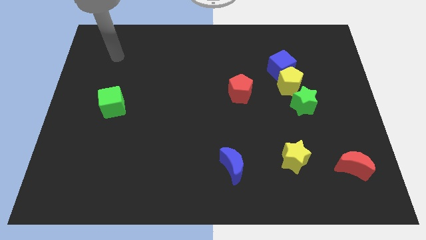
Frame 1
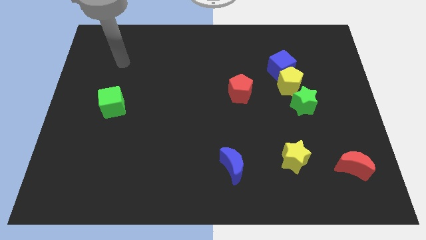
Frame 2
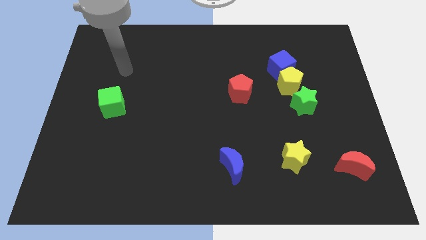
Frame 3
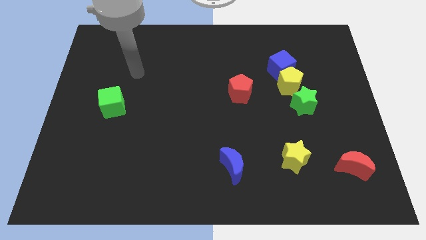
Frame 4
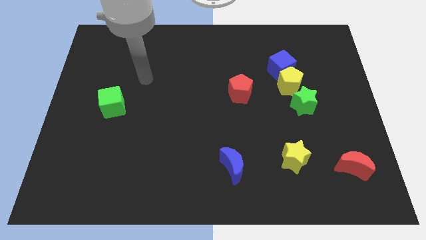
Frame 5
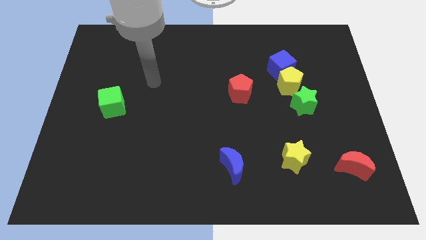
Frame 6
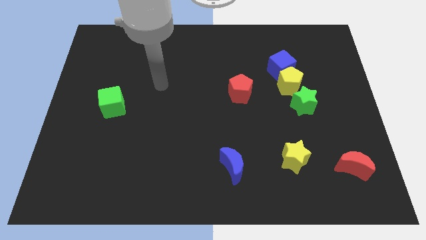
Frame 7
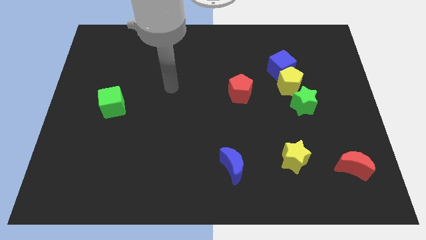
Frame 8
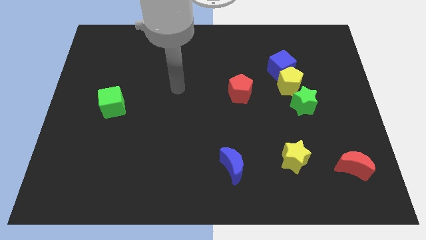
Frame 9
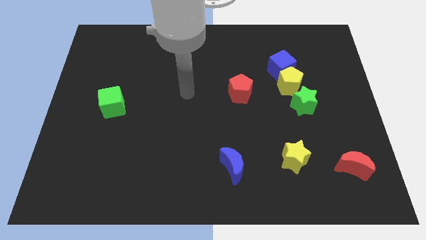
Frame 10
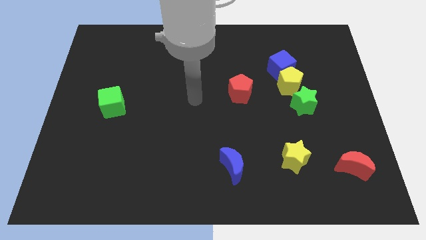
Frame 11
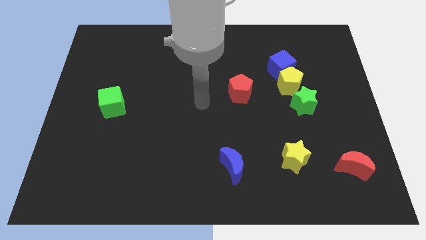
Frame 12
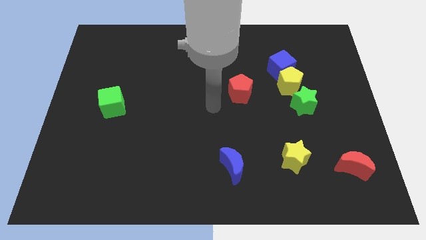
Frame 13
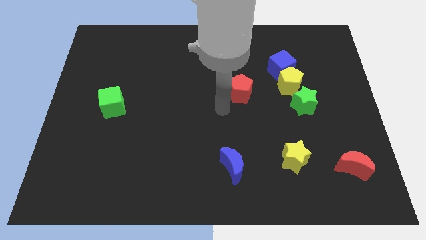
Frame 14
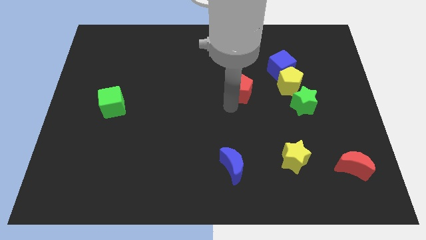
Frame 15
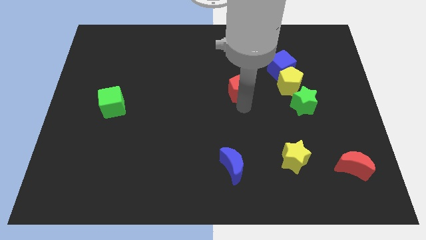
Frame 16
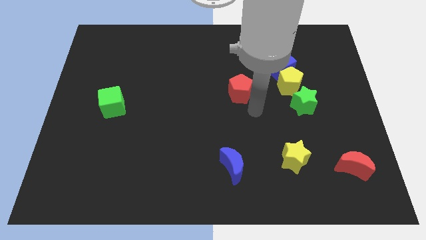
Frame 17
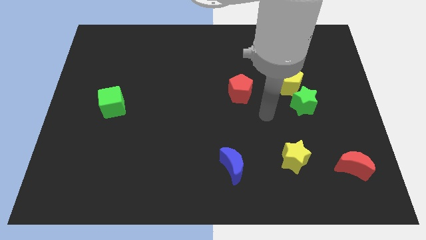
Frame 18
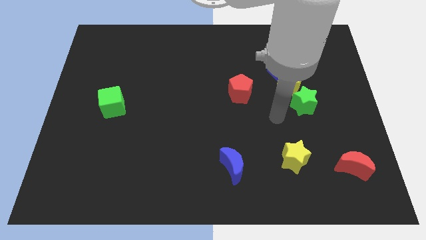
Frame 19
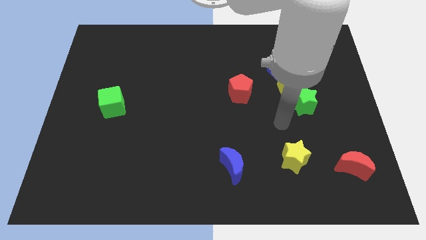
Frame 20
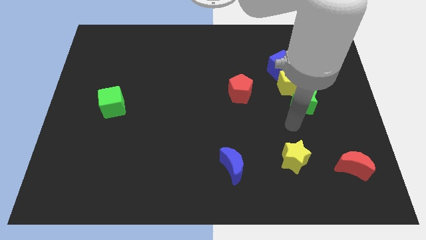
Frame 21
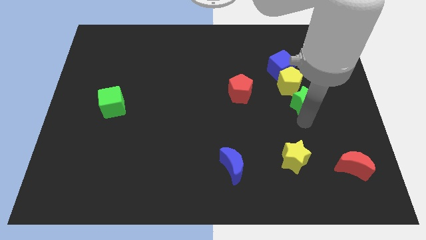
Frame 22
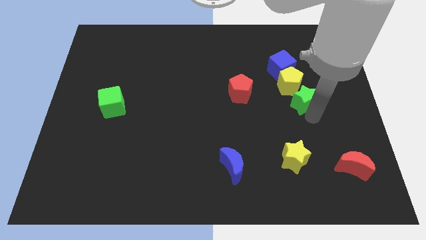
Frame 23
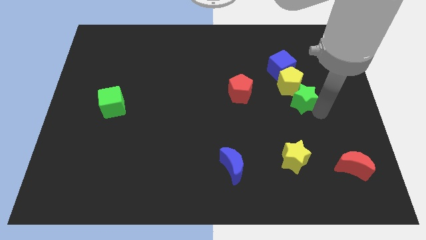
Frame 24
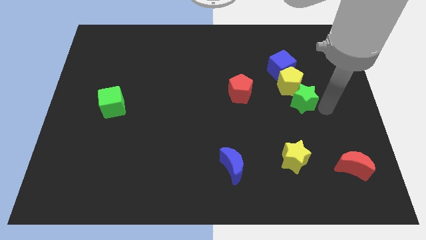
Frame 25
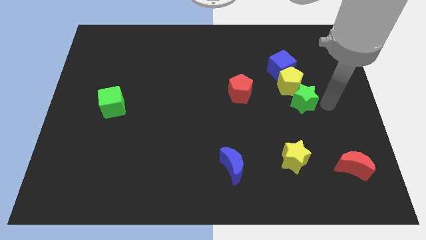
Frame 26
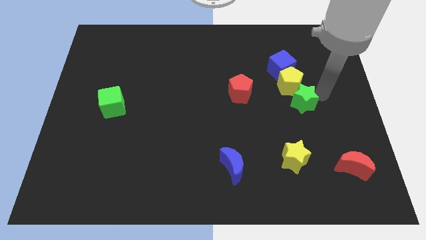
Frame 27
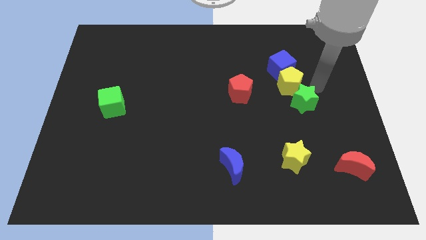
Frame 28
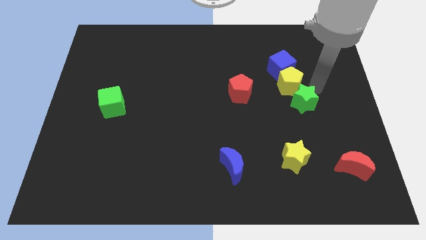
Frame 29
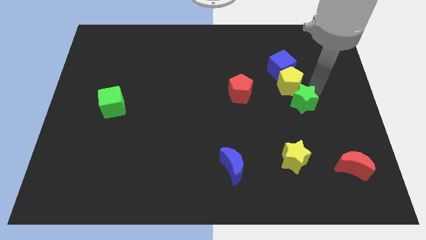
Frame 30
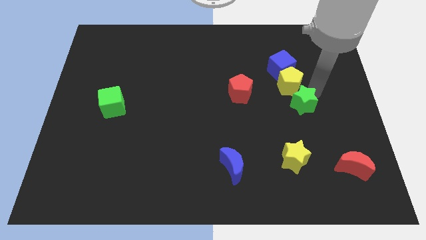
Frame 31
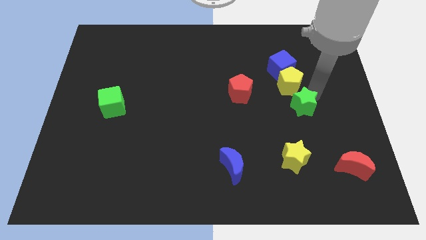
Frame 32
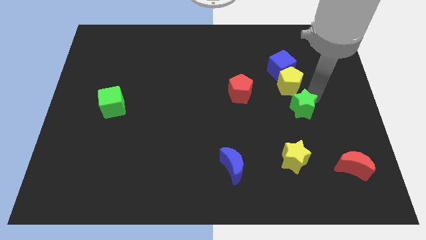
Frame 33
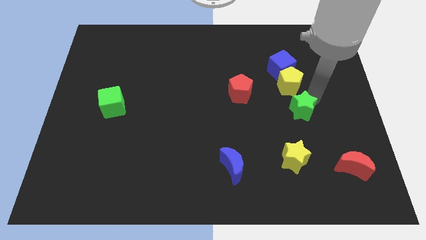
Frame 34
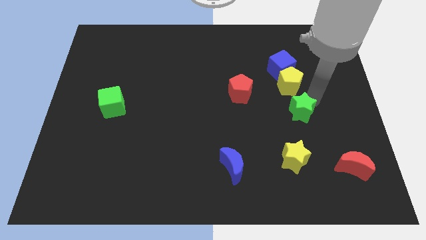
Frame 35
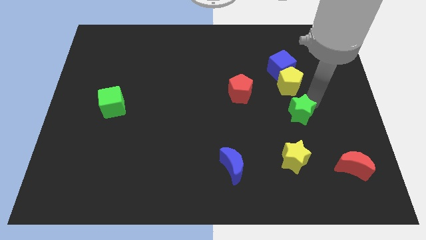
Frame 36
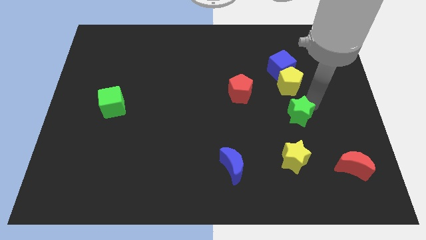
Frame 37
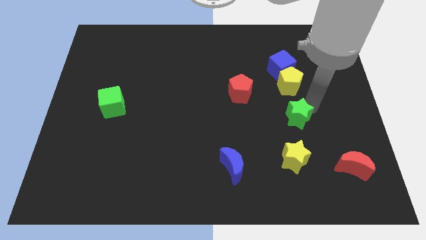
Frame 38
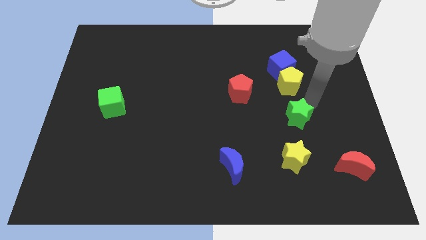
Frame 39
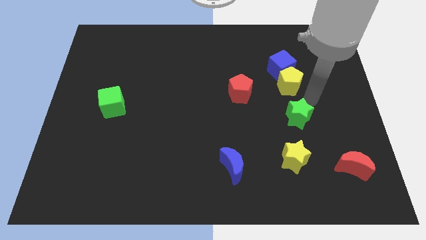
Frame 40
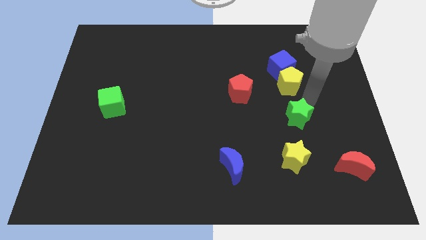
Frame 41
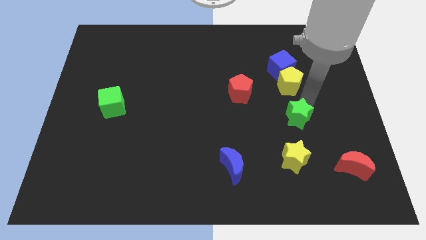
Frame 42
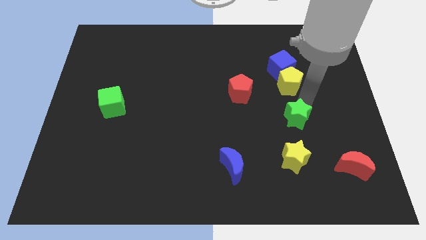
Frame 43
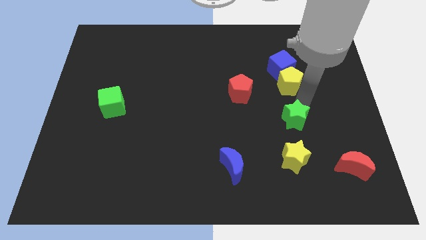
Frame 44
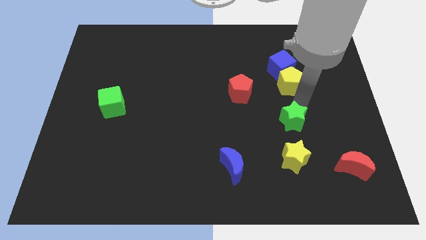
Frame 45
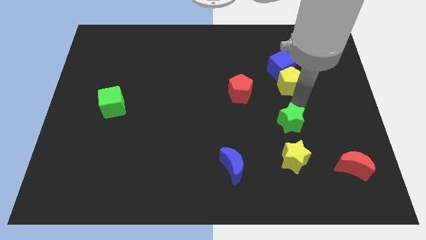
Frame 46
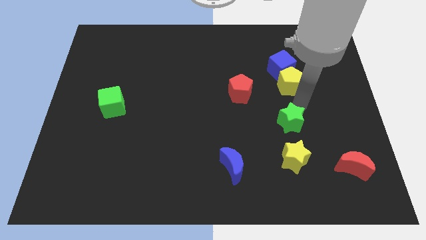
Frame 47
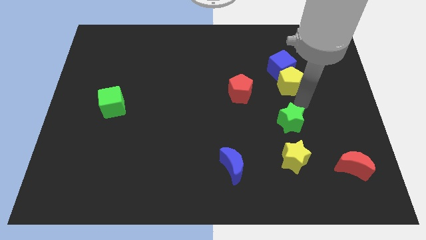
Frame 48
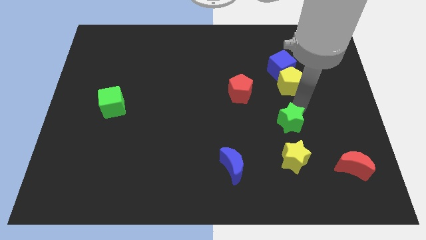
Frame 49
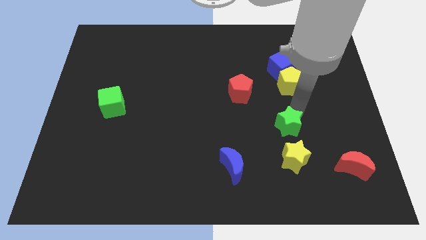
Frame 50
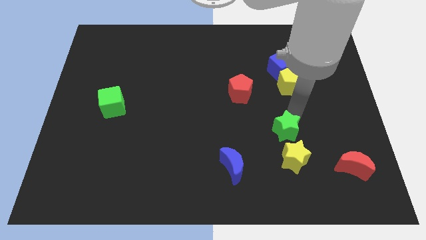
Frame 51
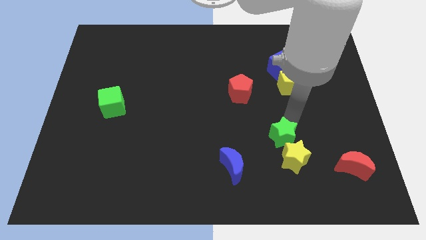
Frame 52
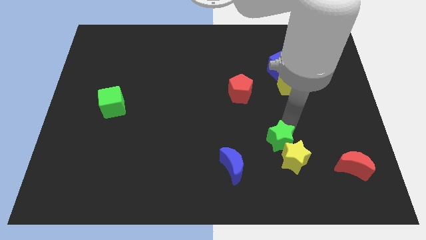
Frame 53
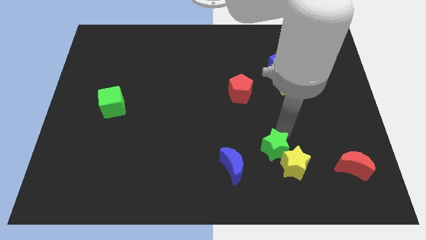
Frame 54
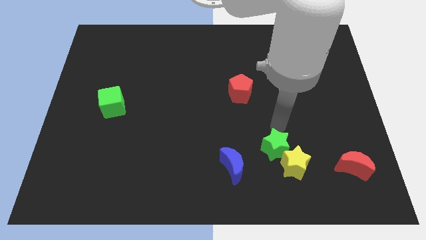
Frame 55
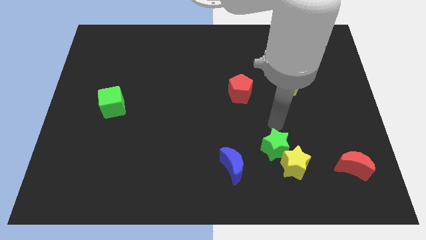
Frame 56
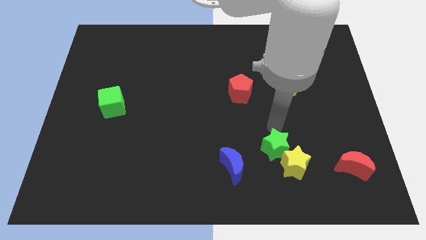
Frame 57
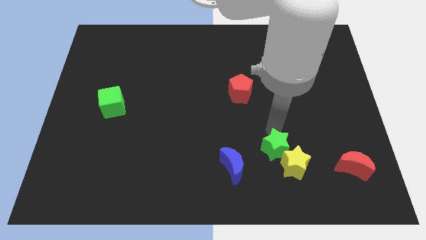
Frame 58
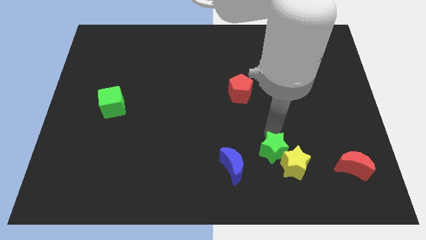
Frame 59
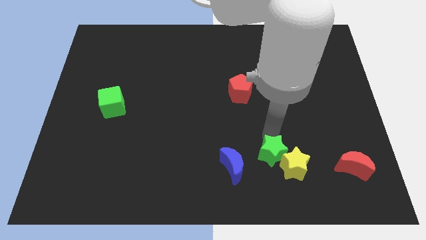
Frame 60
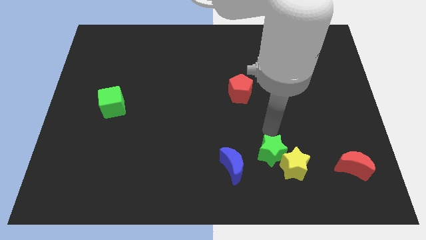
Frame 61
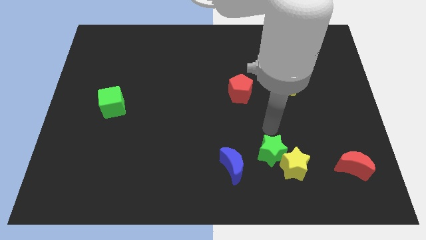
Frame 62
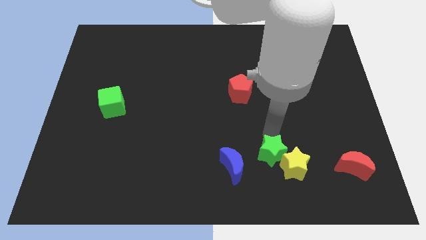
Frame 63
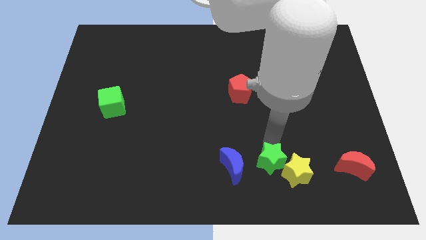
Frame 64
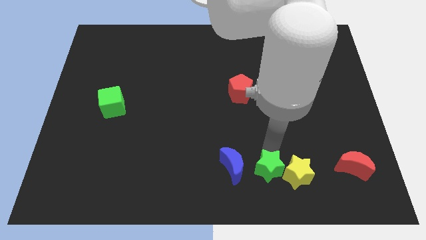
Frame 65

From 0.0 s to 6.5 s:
put the green star to the bottom left side of the yellow star
